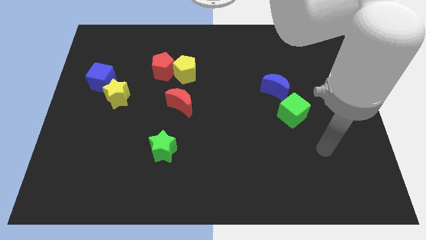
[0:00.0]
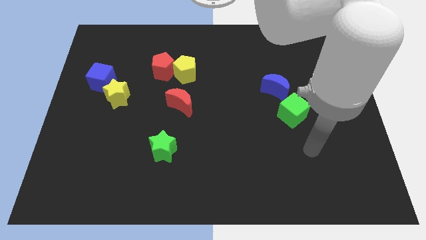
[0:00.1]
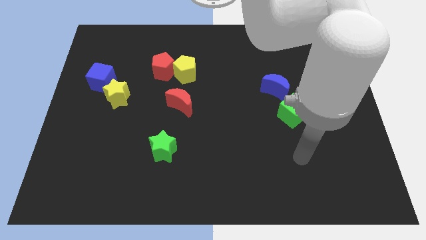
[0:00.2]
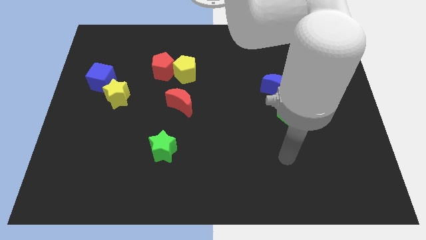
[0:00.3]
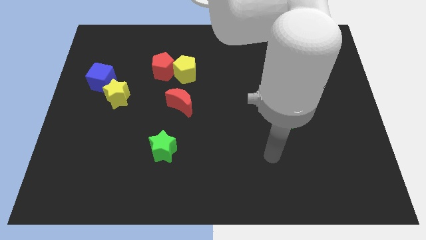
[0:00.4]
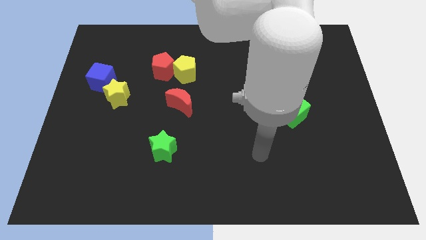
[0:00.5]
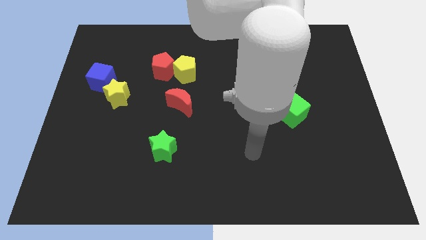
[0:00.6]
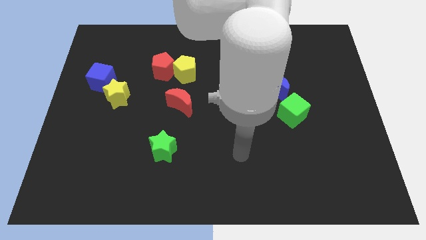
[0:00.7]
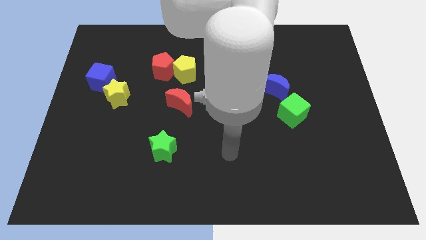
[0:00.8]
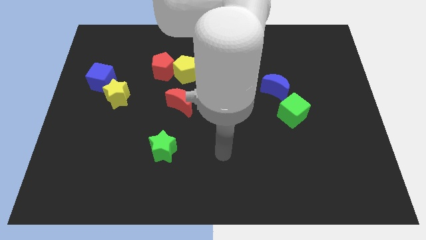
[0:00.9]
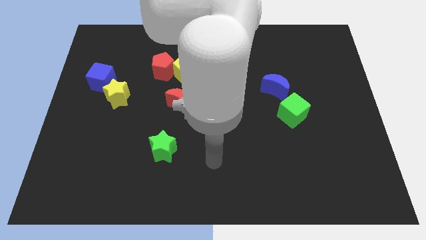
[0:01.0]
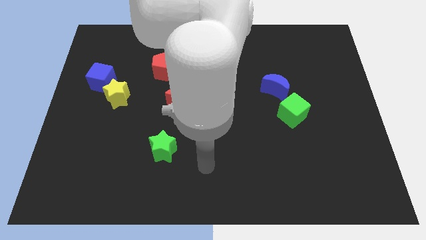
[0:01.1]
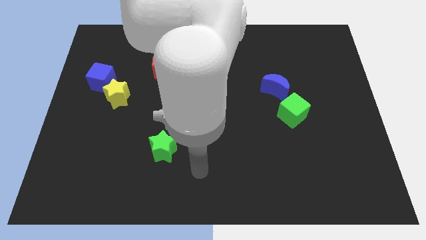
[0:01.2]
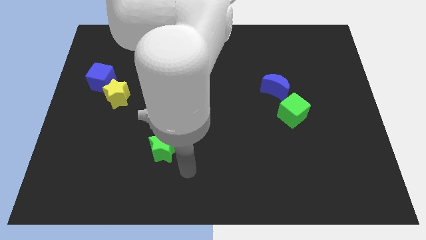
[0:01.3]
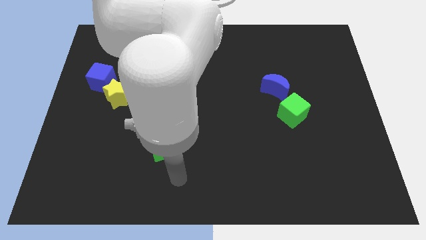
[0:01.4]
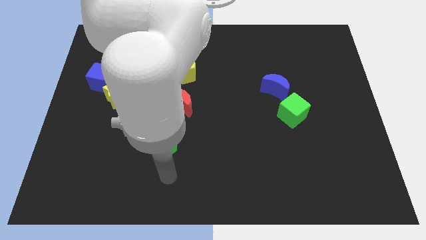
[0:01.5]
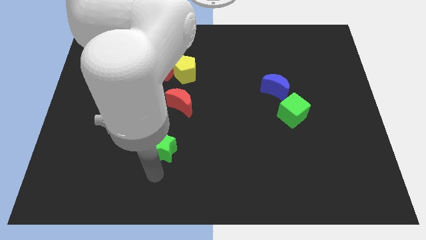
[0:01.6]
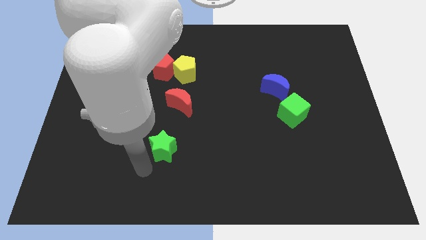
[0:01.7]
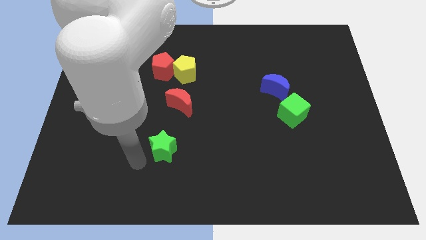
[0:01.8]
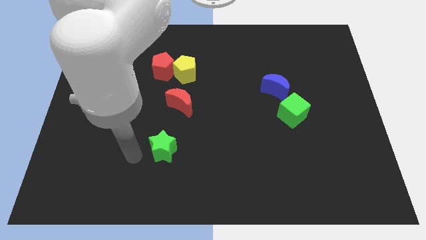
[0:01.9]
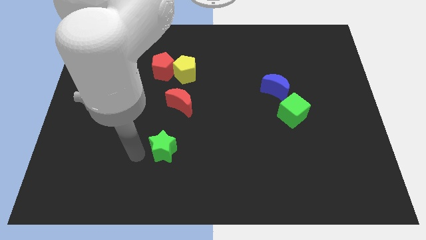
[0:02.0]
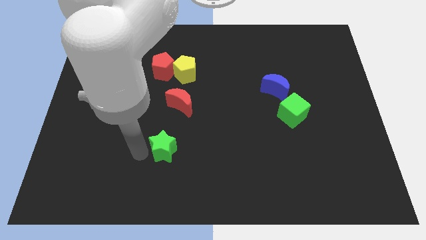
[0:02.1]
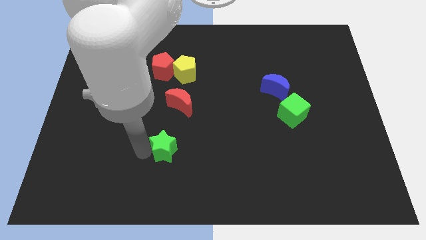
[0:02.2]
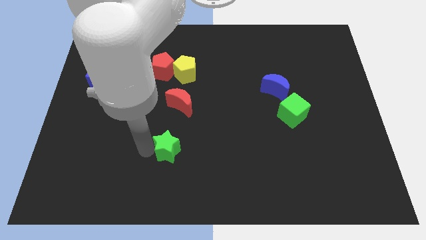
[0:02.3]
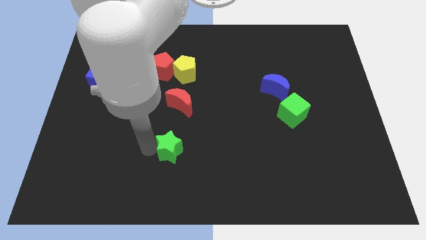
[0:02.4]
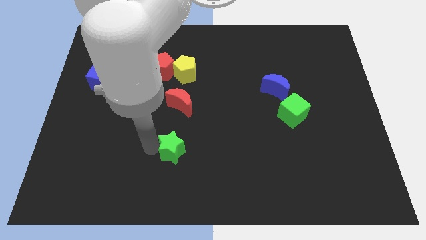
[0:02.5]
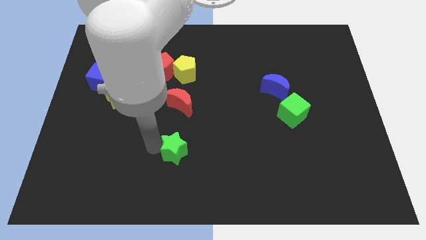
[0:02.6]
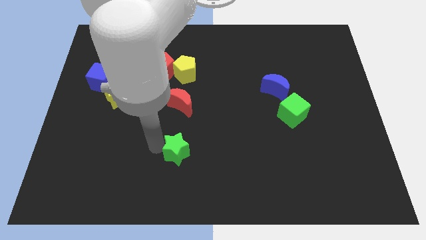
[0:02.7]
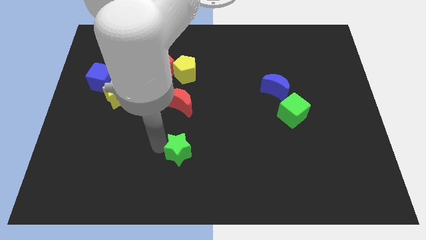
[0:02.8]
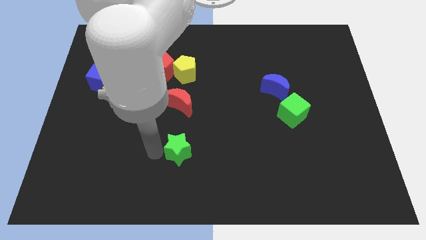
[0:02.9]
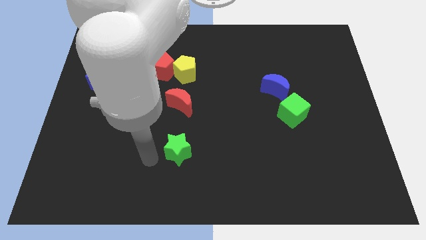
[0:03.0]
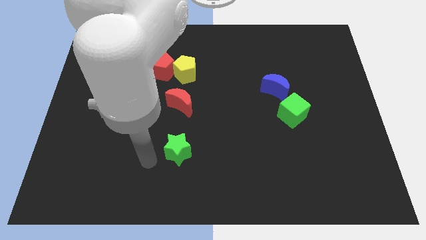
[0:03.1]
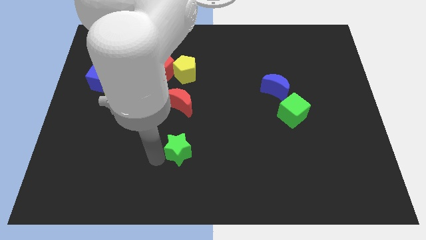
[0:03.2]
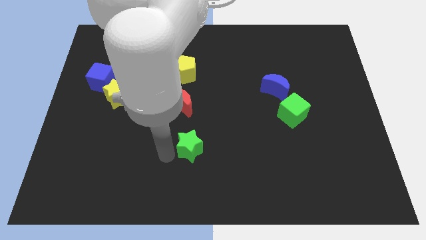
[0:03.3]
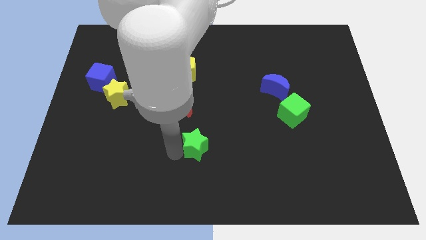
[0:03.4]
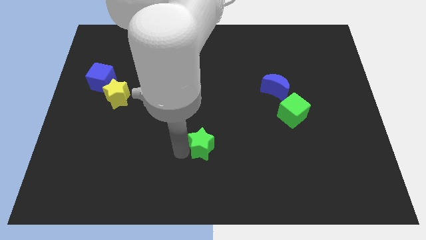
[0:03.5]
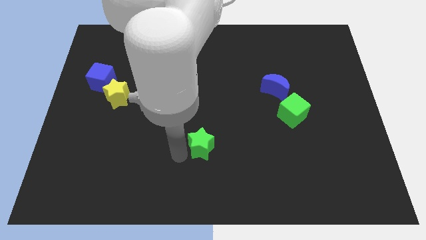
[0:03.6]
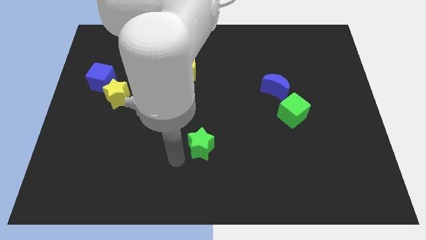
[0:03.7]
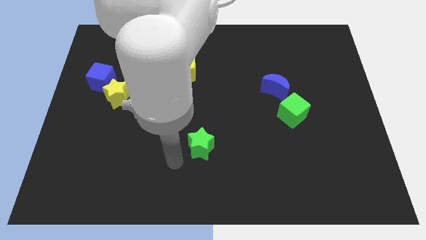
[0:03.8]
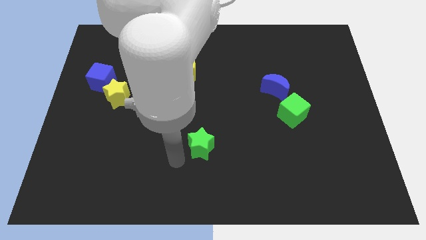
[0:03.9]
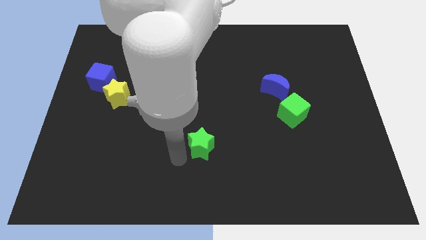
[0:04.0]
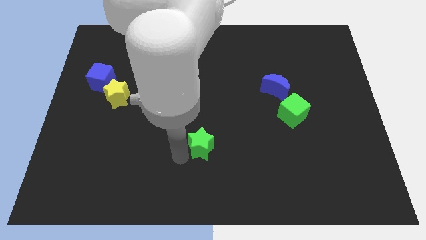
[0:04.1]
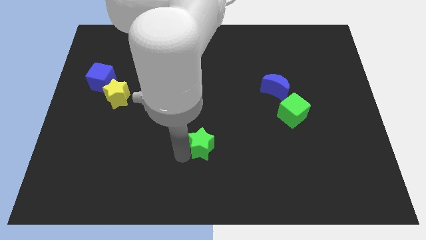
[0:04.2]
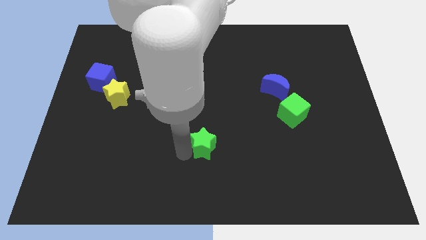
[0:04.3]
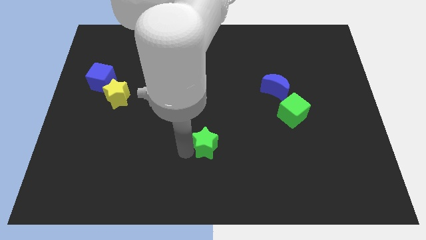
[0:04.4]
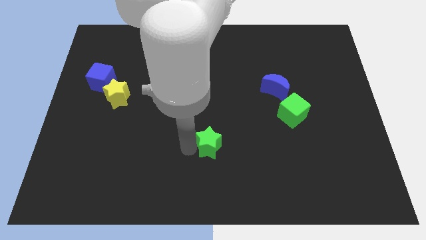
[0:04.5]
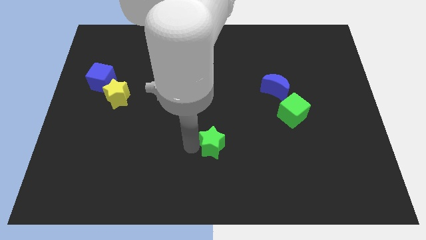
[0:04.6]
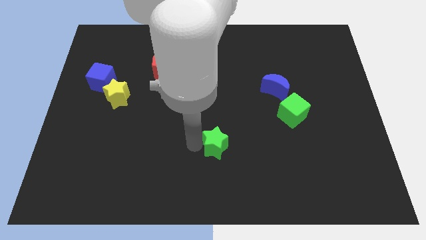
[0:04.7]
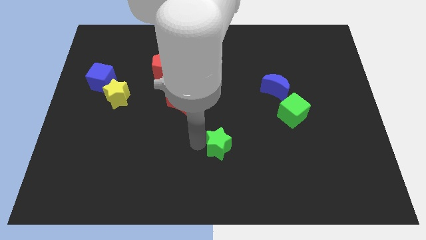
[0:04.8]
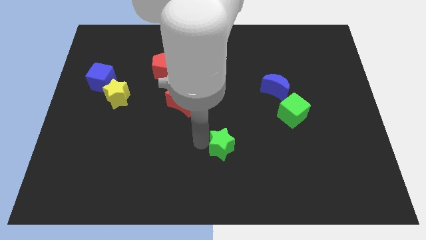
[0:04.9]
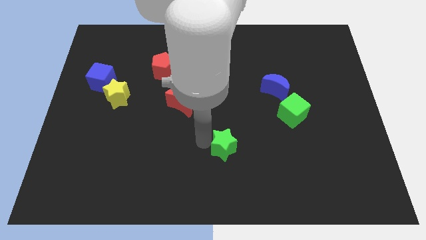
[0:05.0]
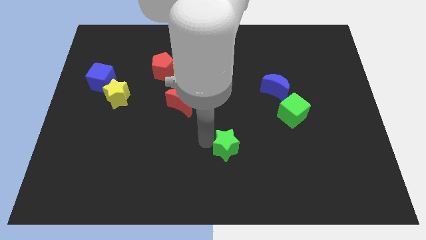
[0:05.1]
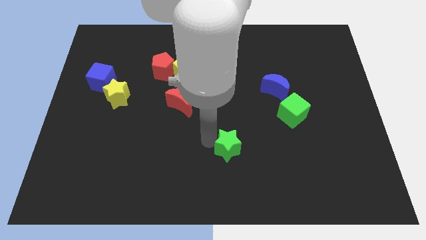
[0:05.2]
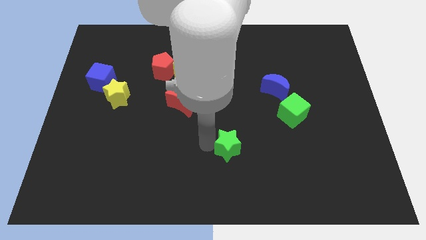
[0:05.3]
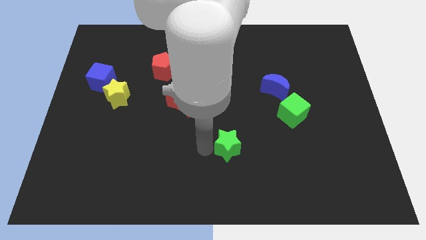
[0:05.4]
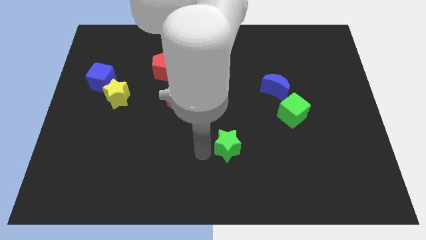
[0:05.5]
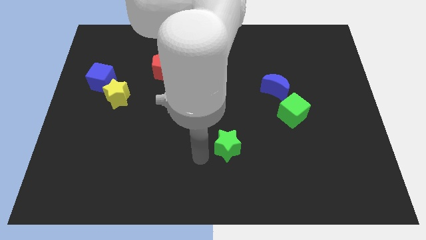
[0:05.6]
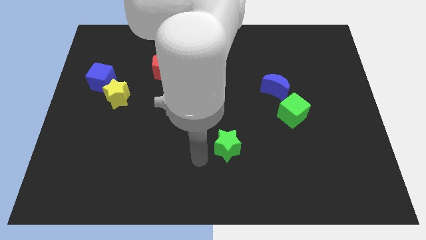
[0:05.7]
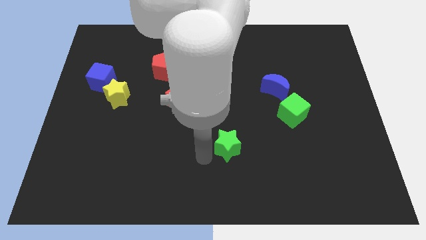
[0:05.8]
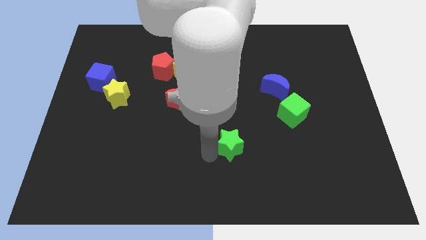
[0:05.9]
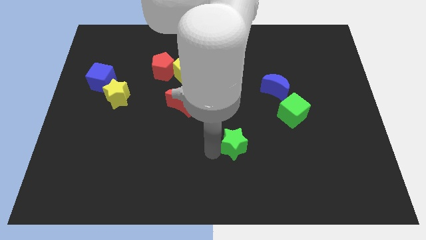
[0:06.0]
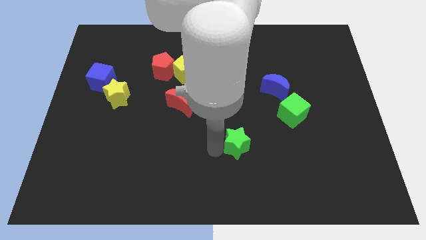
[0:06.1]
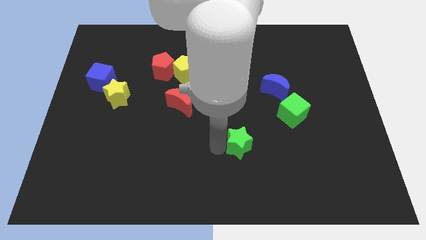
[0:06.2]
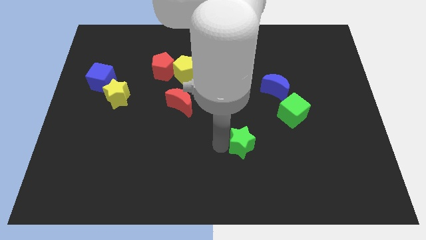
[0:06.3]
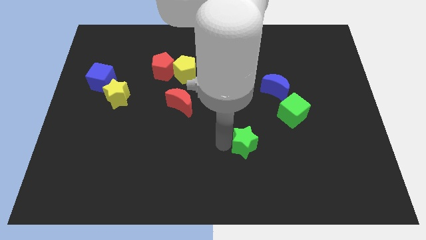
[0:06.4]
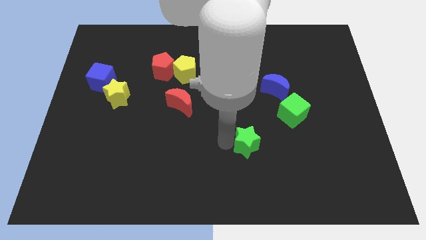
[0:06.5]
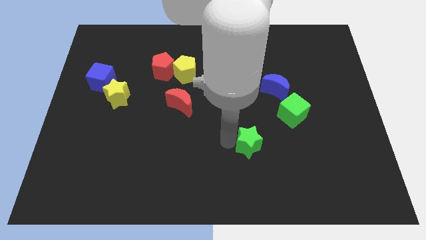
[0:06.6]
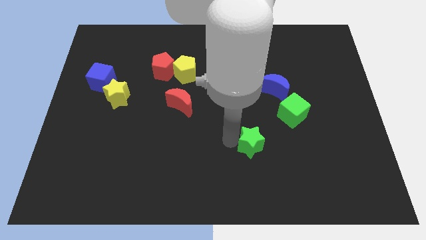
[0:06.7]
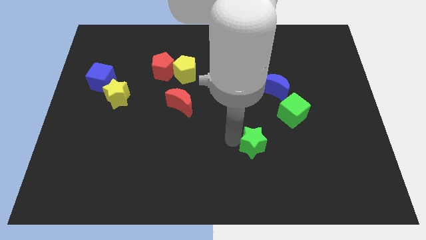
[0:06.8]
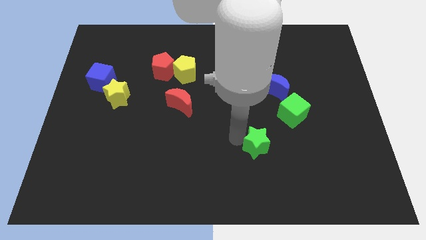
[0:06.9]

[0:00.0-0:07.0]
move the green star to the right

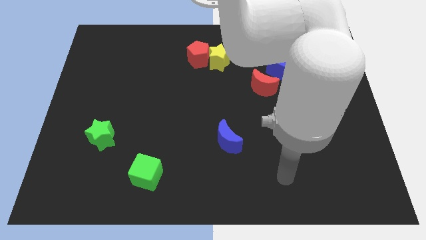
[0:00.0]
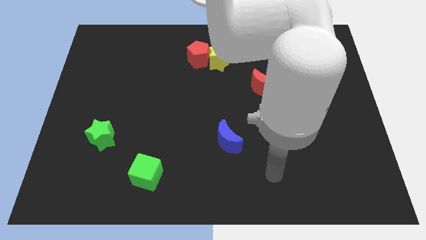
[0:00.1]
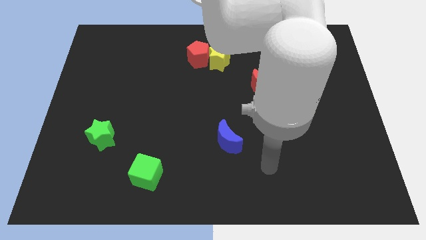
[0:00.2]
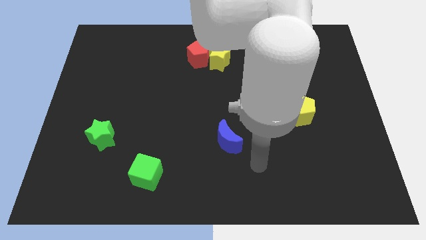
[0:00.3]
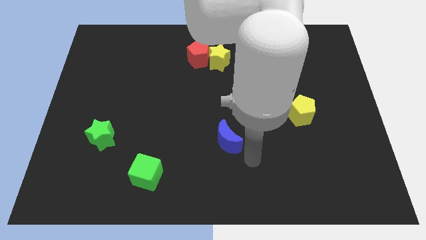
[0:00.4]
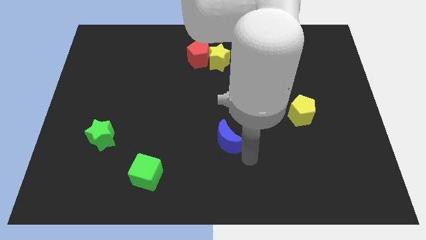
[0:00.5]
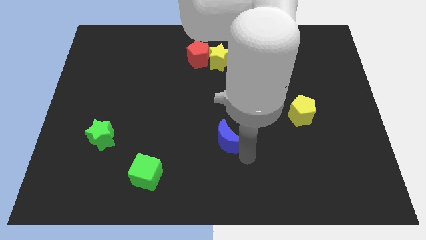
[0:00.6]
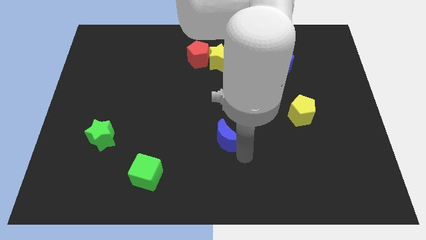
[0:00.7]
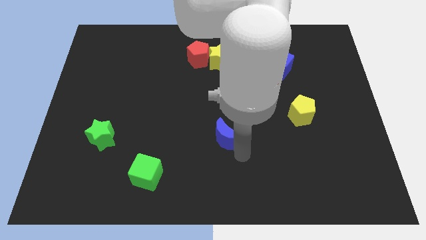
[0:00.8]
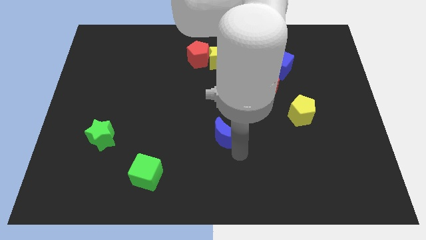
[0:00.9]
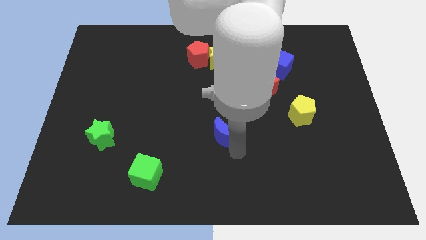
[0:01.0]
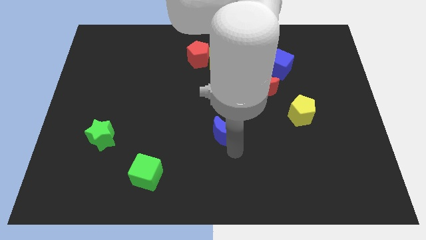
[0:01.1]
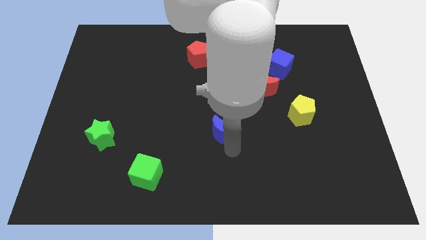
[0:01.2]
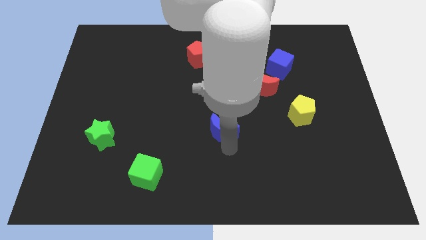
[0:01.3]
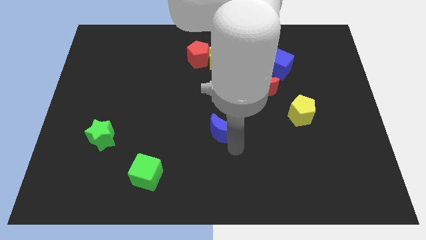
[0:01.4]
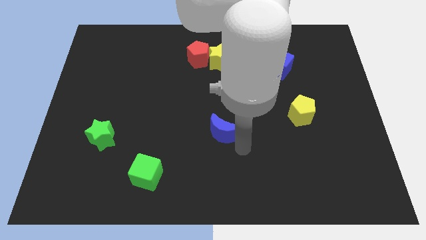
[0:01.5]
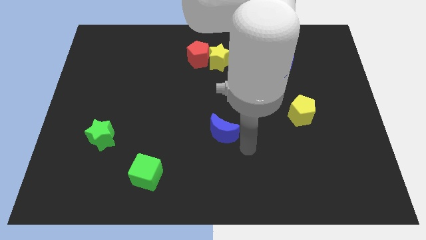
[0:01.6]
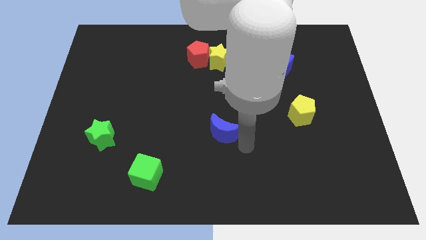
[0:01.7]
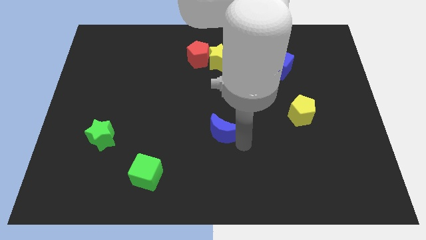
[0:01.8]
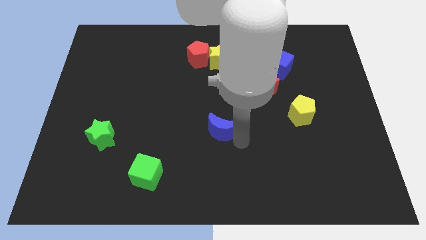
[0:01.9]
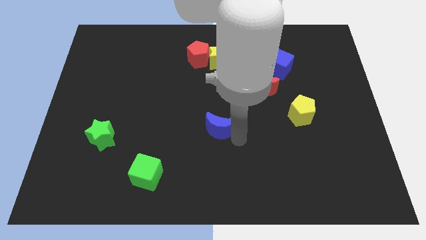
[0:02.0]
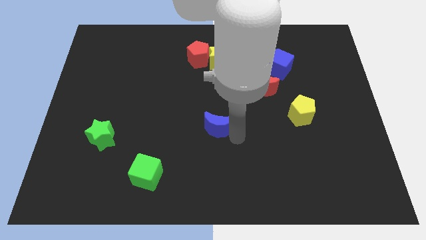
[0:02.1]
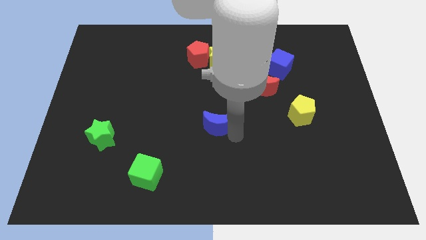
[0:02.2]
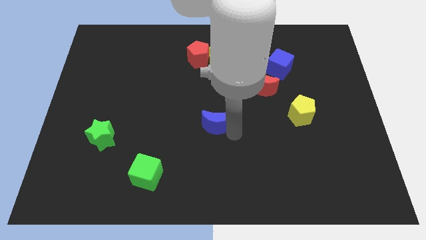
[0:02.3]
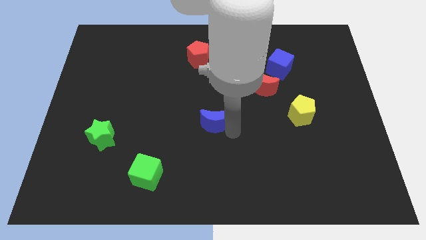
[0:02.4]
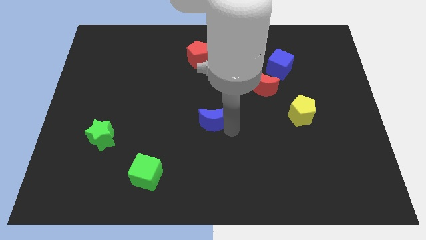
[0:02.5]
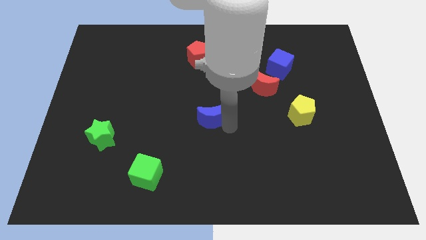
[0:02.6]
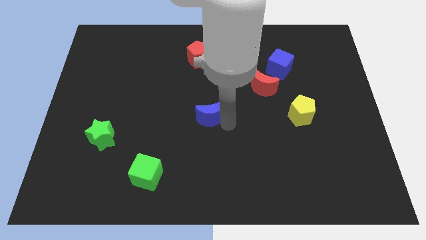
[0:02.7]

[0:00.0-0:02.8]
slightly move the blue moon up and left
